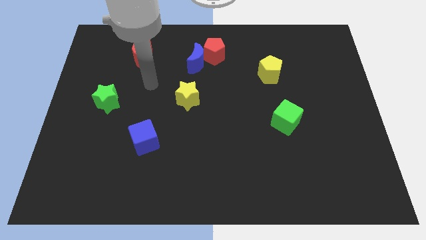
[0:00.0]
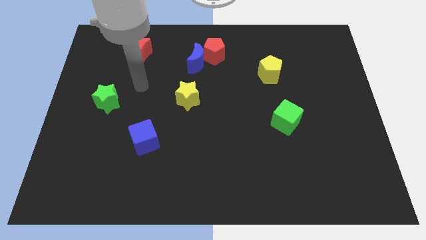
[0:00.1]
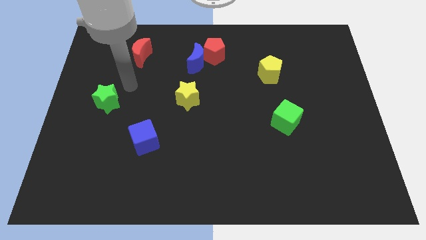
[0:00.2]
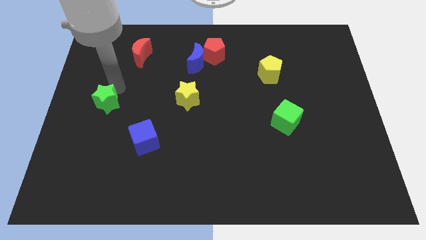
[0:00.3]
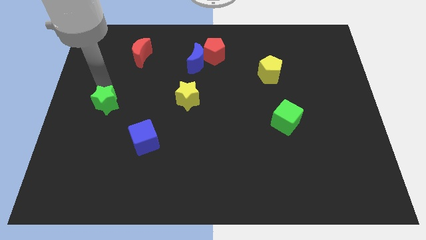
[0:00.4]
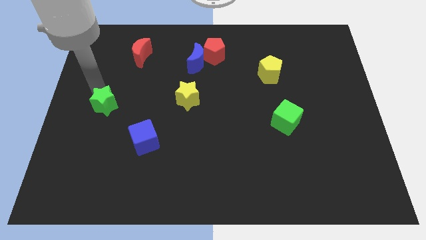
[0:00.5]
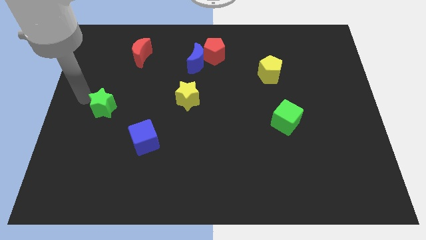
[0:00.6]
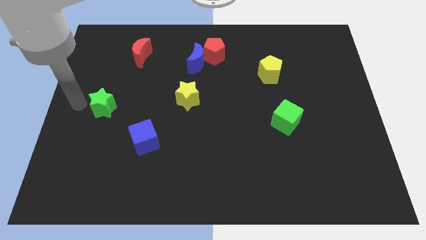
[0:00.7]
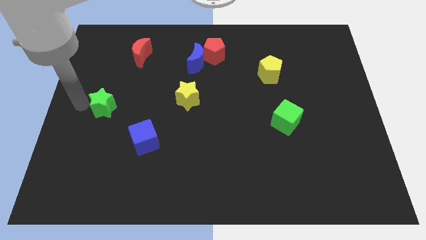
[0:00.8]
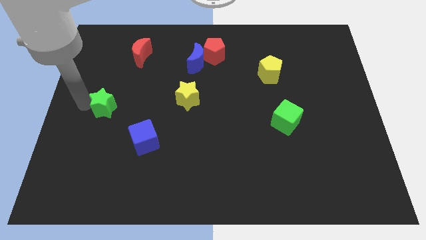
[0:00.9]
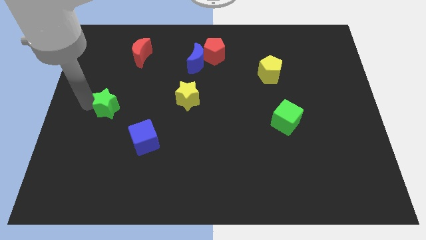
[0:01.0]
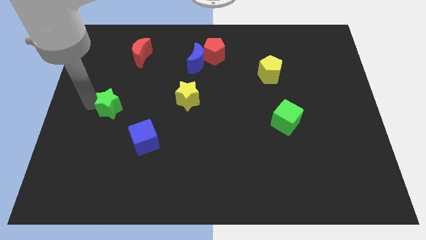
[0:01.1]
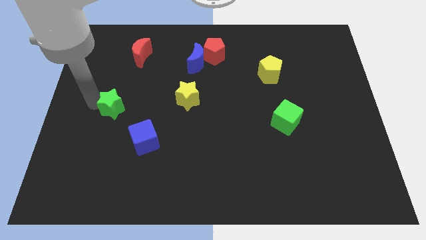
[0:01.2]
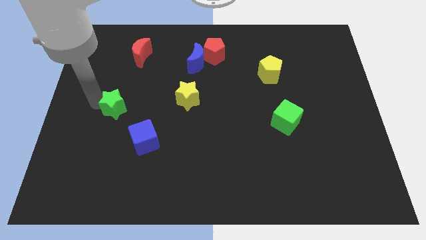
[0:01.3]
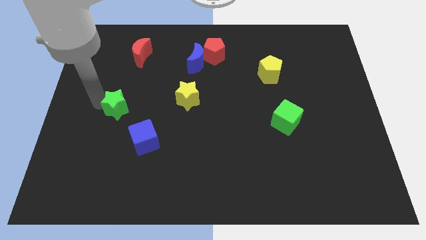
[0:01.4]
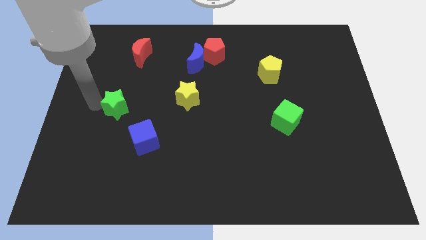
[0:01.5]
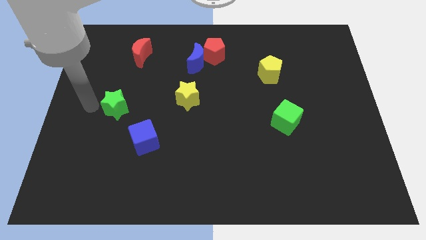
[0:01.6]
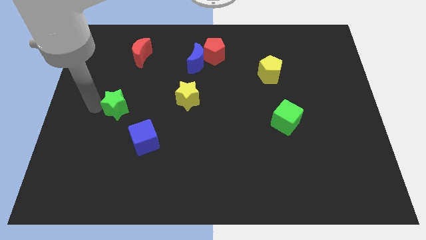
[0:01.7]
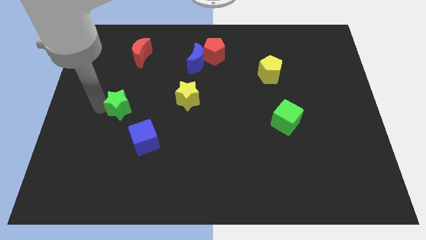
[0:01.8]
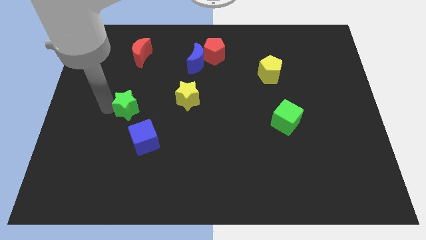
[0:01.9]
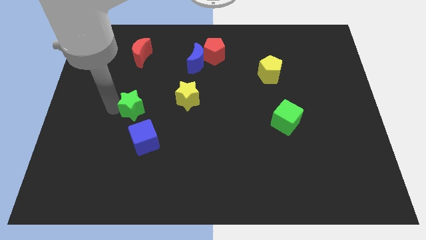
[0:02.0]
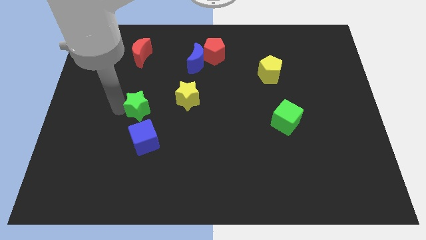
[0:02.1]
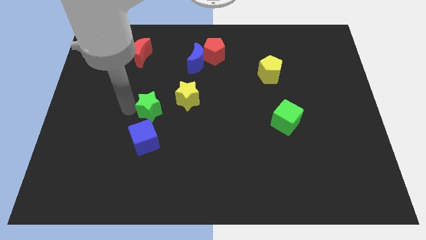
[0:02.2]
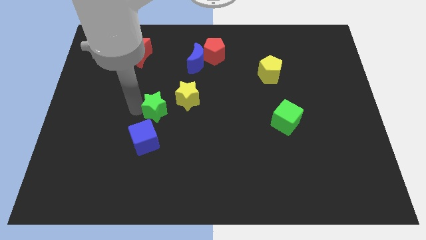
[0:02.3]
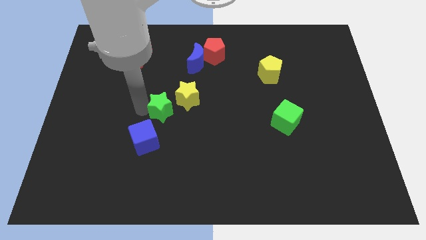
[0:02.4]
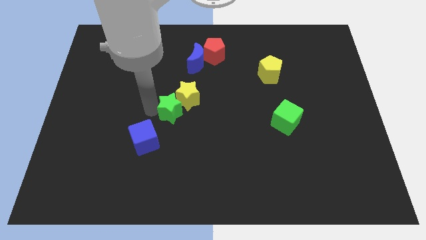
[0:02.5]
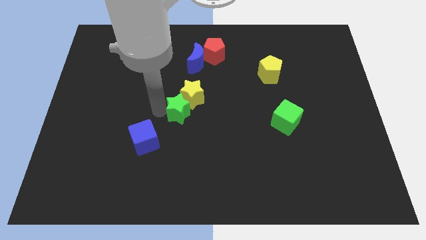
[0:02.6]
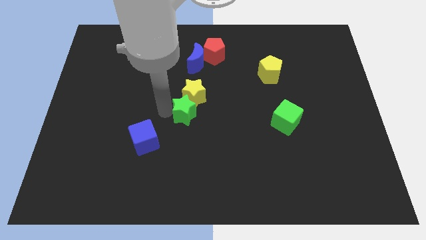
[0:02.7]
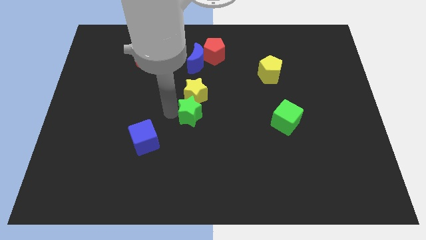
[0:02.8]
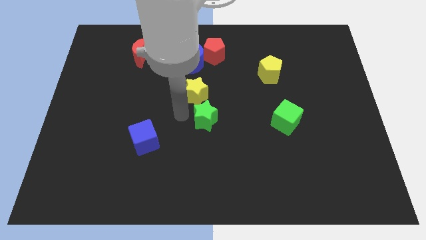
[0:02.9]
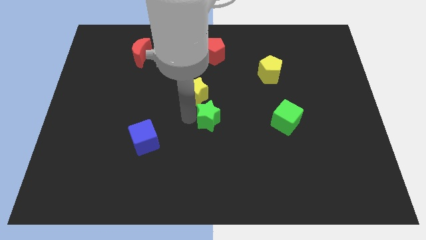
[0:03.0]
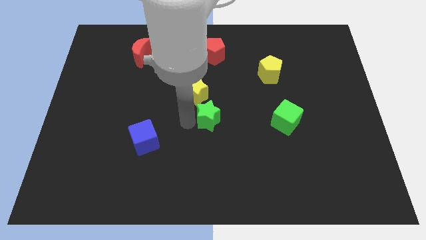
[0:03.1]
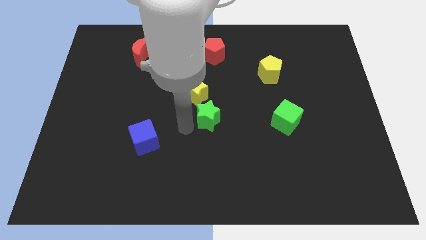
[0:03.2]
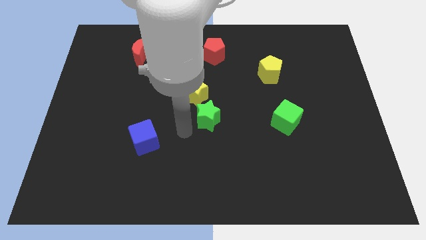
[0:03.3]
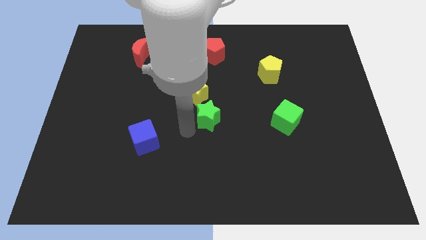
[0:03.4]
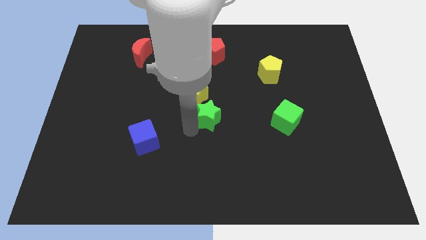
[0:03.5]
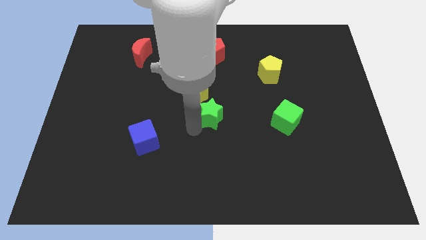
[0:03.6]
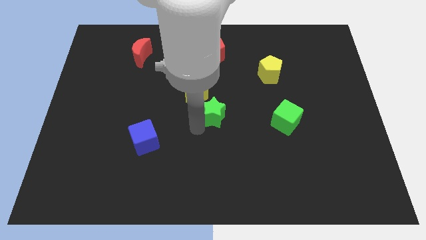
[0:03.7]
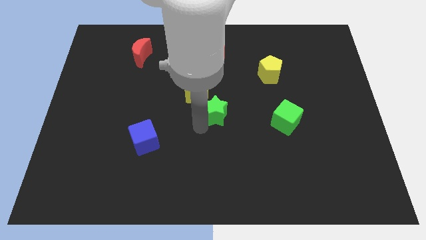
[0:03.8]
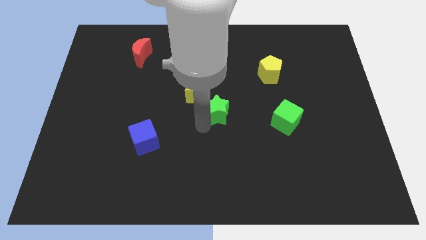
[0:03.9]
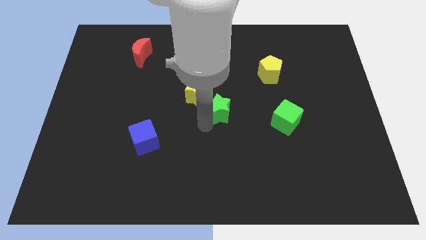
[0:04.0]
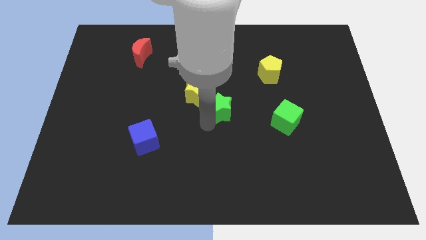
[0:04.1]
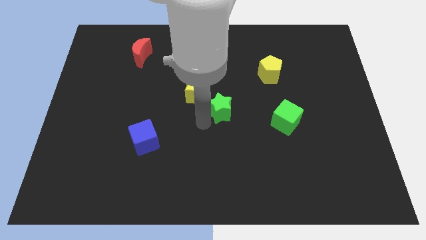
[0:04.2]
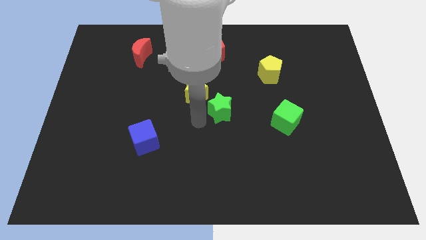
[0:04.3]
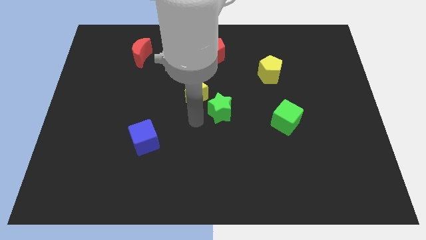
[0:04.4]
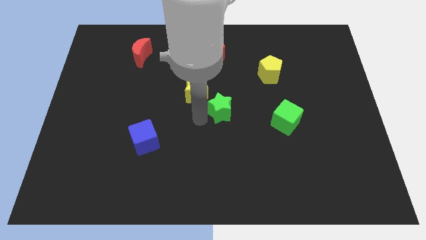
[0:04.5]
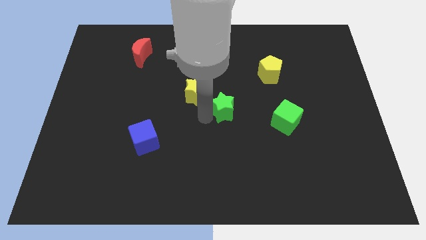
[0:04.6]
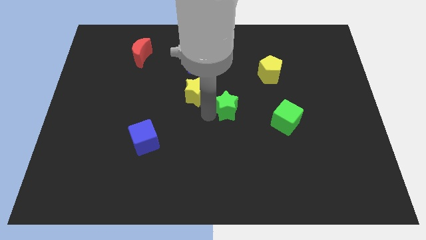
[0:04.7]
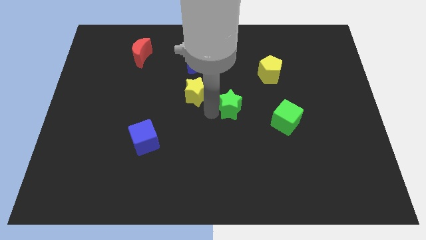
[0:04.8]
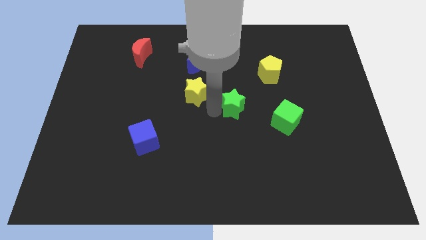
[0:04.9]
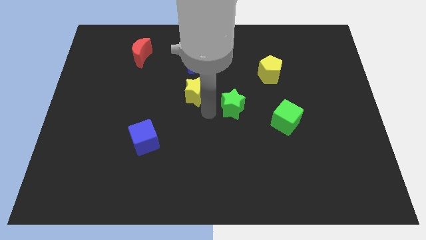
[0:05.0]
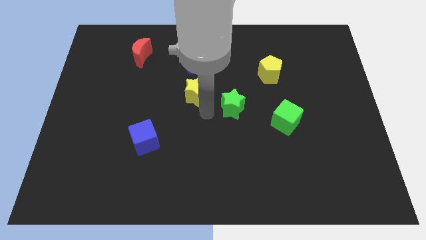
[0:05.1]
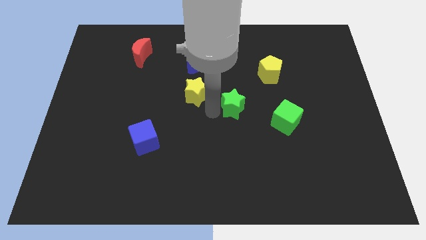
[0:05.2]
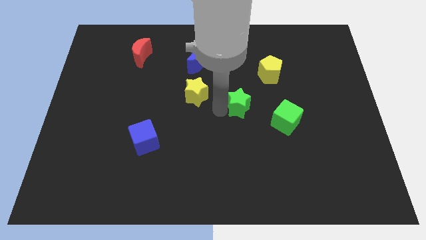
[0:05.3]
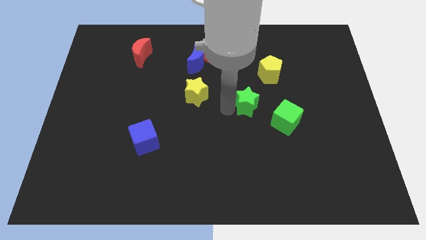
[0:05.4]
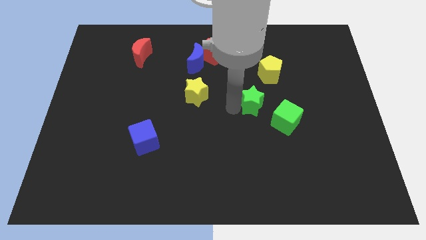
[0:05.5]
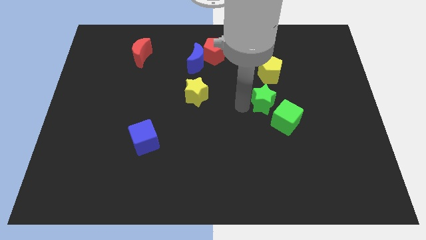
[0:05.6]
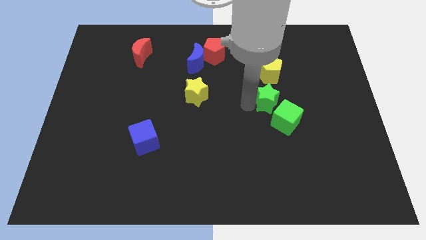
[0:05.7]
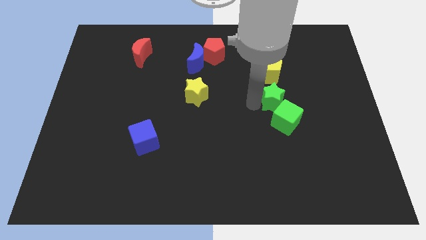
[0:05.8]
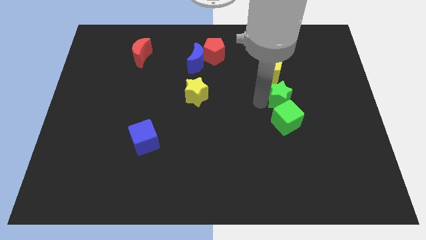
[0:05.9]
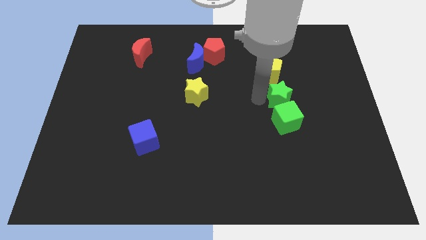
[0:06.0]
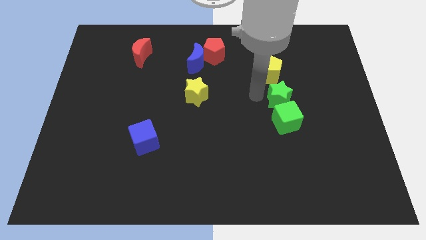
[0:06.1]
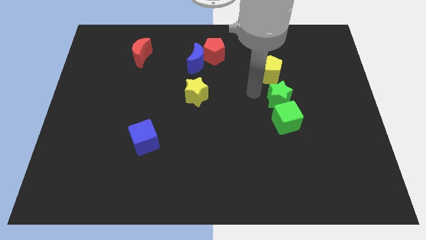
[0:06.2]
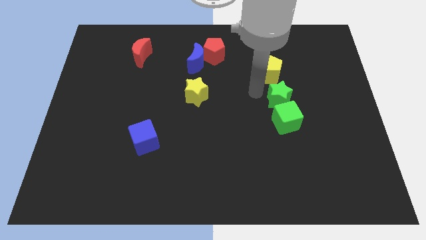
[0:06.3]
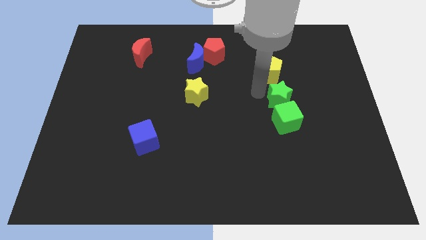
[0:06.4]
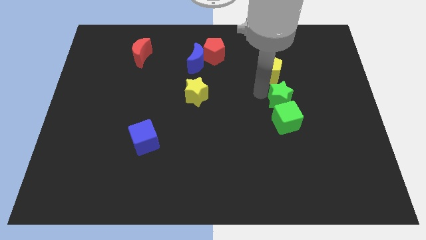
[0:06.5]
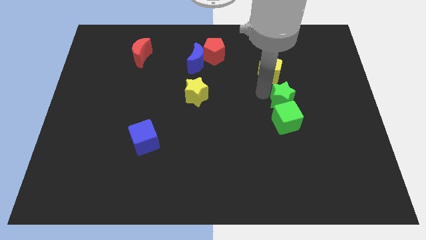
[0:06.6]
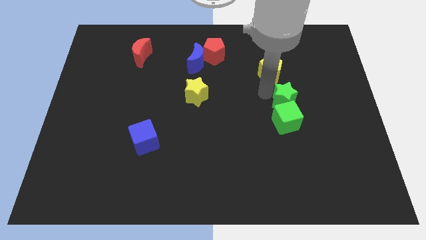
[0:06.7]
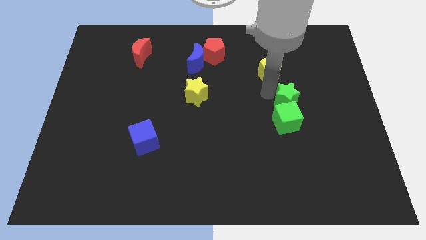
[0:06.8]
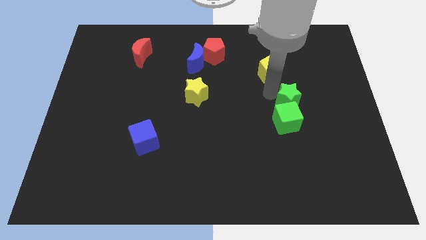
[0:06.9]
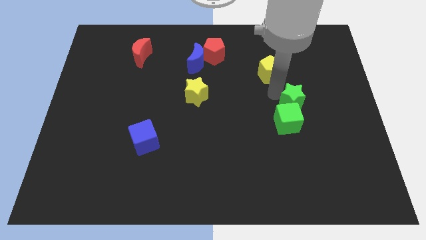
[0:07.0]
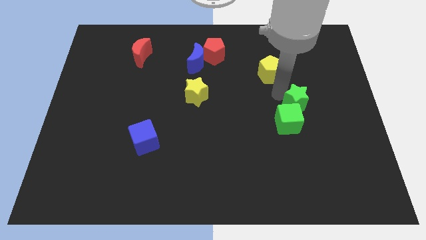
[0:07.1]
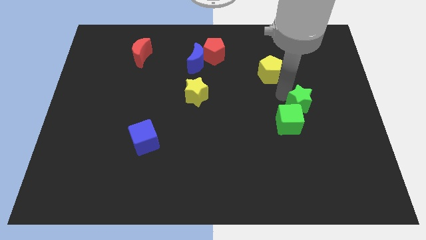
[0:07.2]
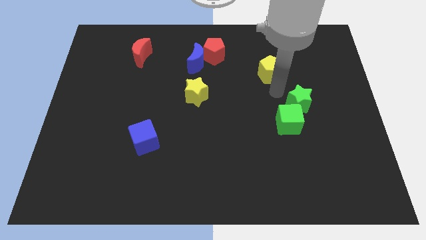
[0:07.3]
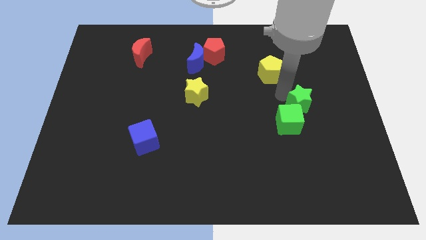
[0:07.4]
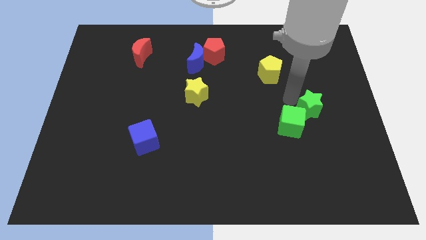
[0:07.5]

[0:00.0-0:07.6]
slide the green star just right of the green cube
